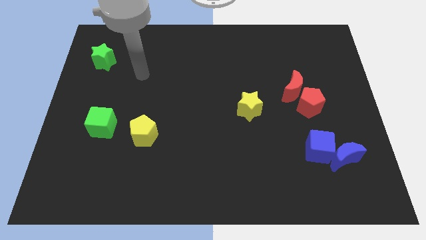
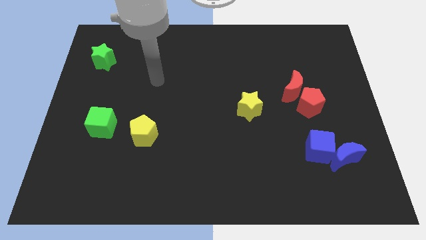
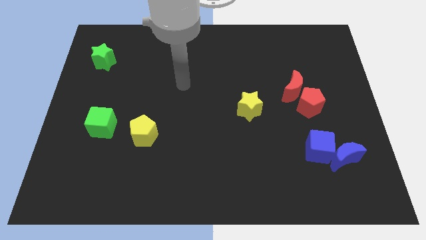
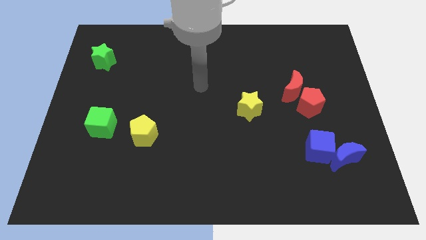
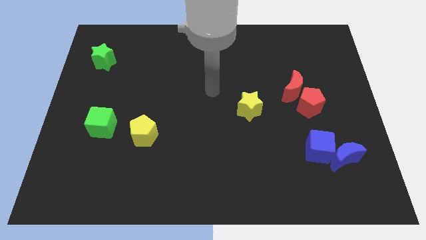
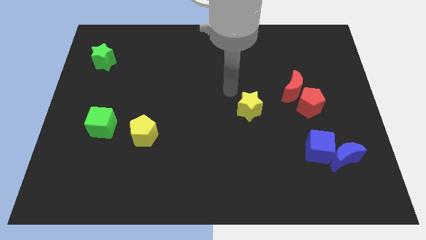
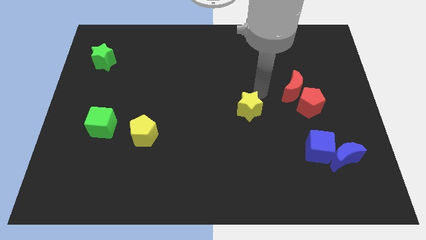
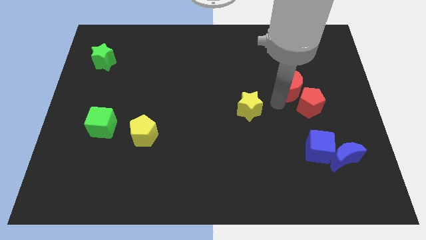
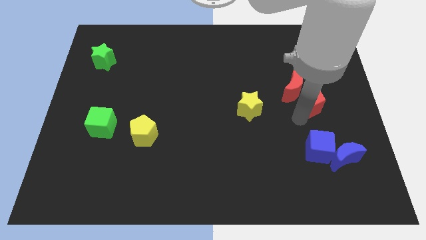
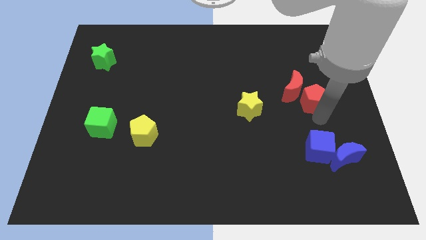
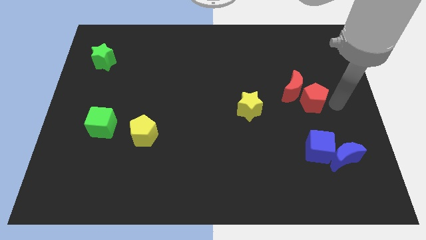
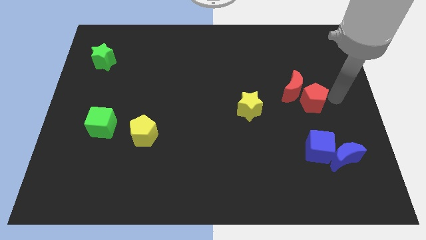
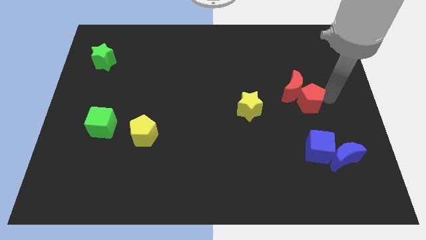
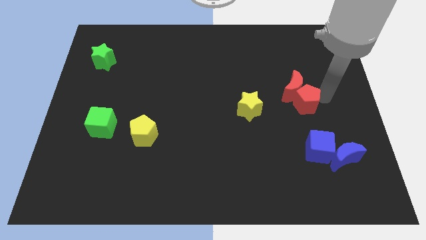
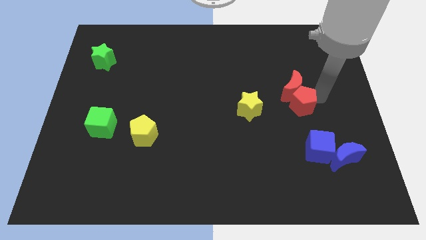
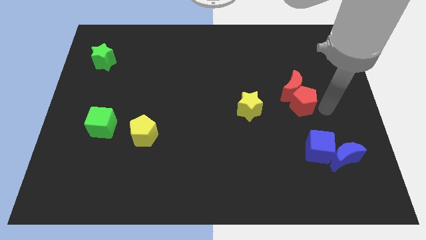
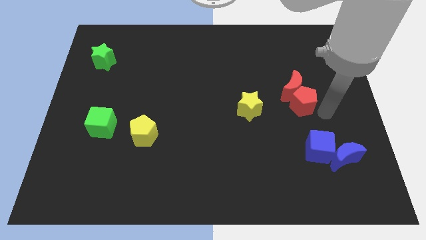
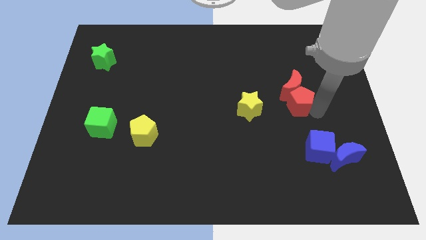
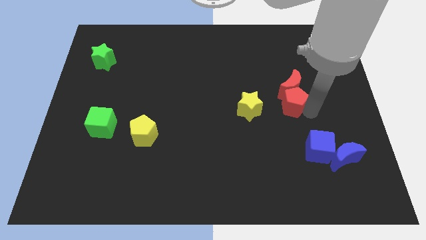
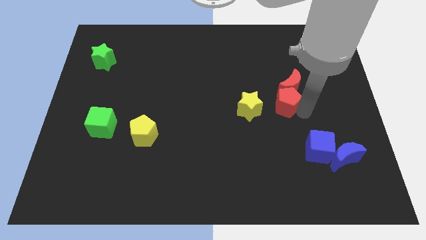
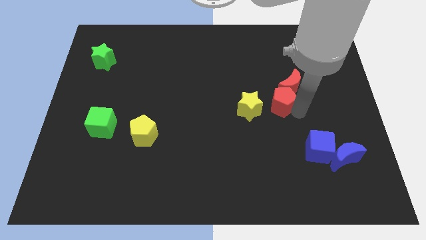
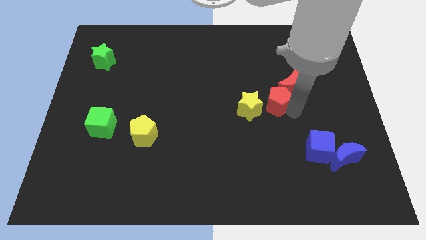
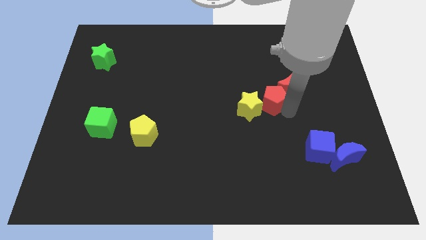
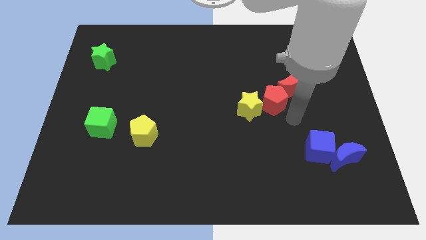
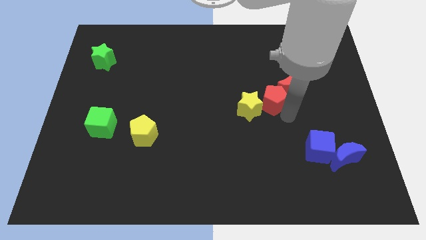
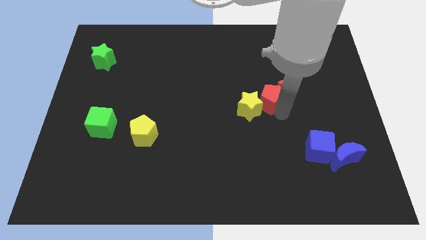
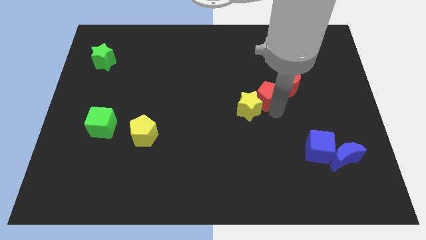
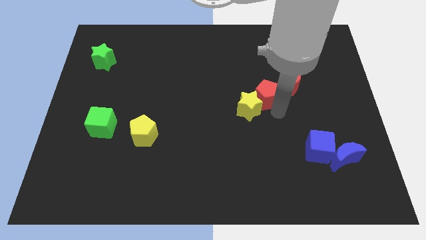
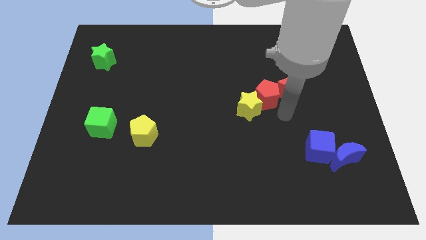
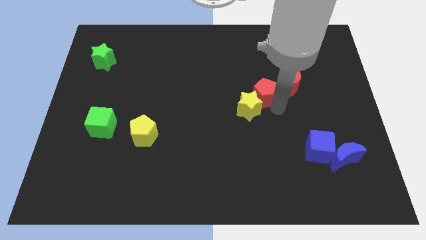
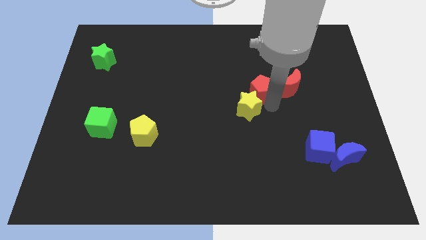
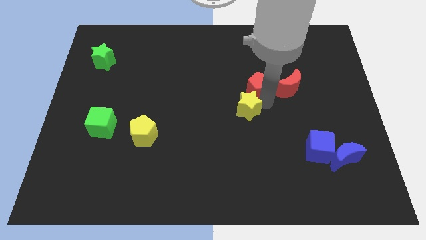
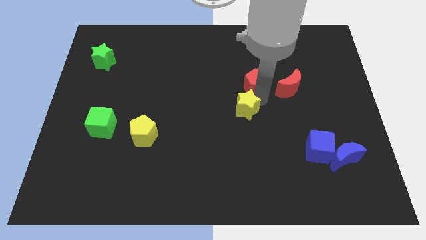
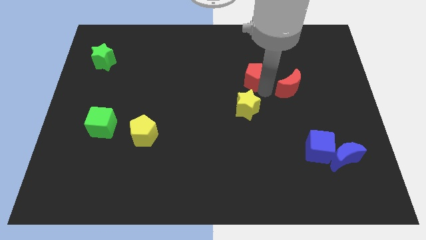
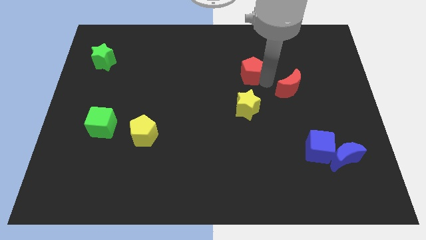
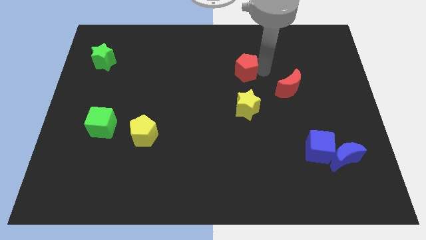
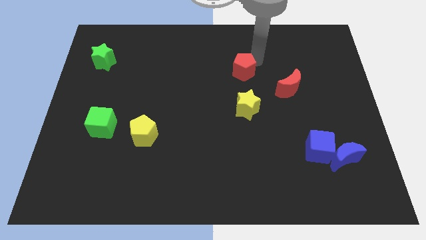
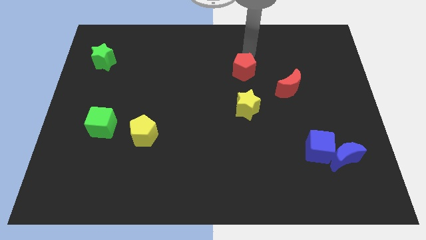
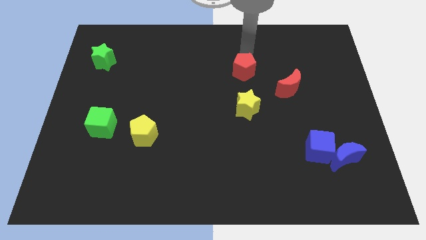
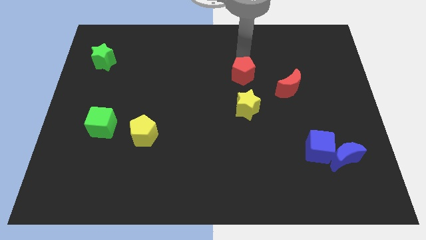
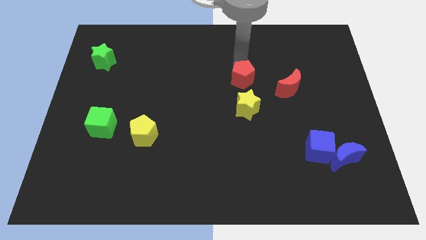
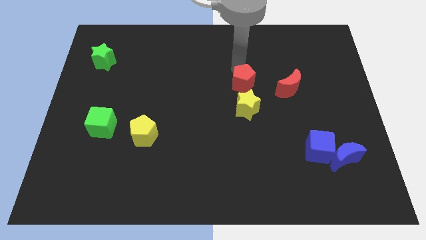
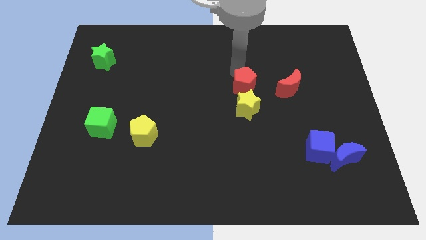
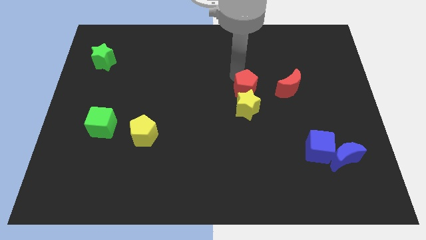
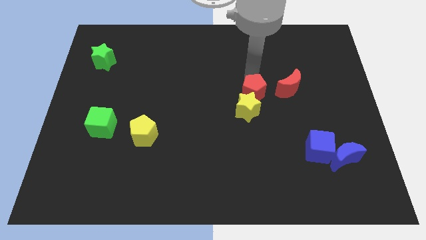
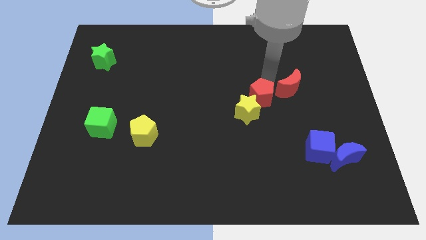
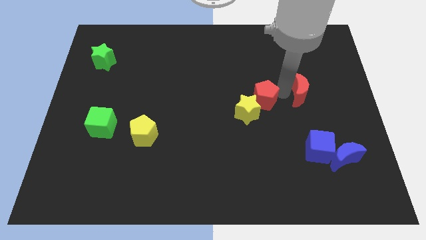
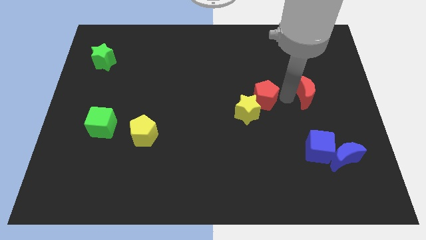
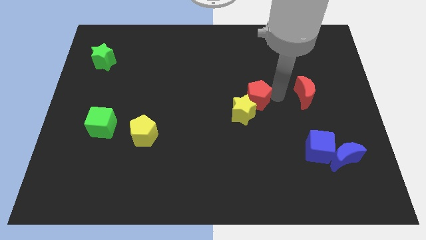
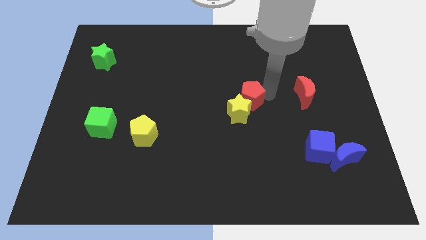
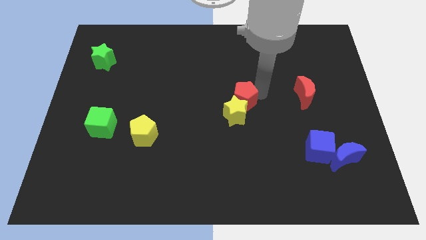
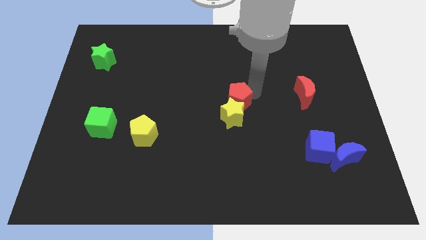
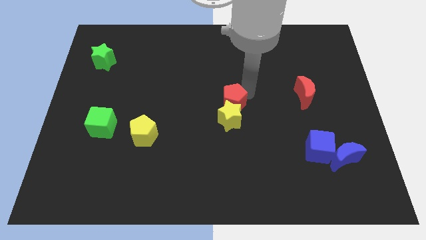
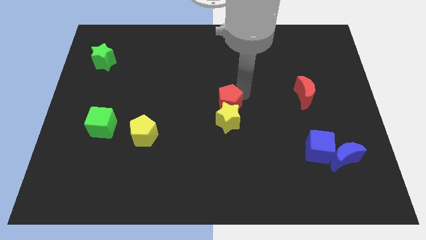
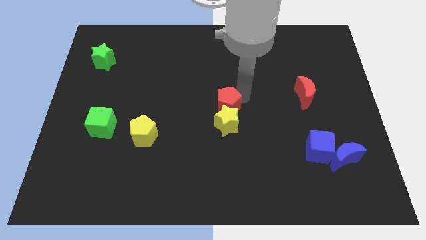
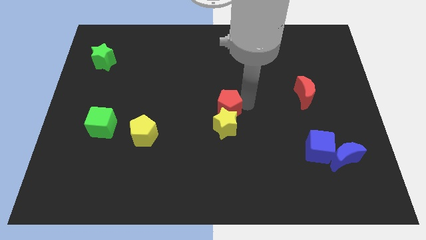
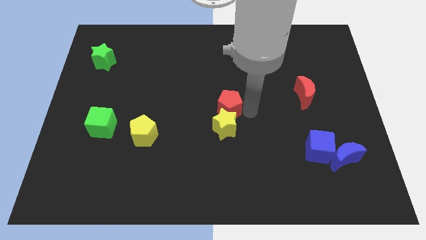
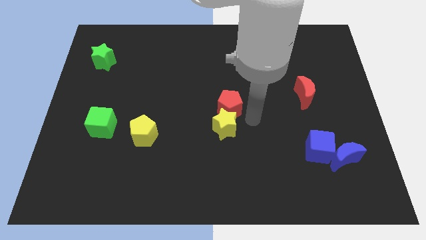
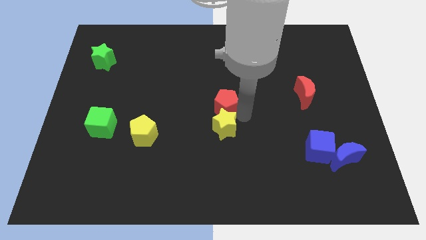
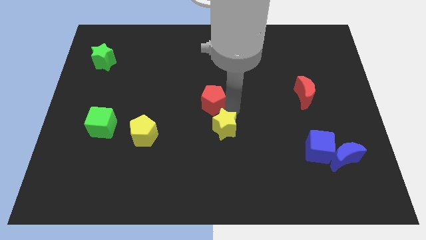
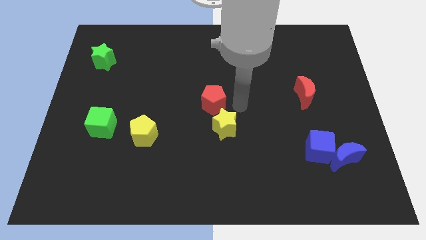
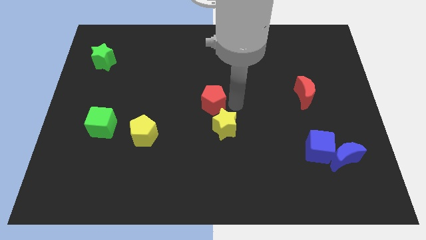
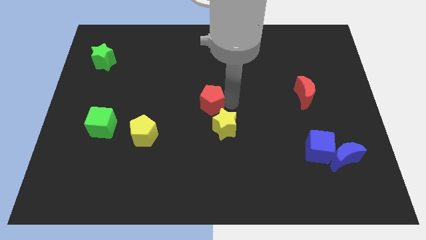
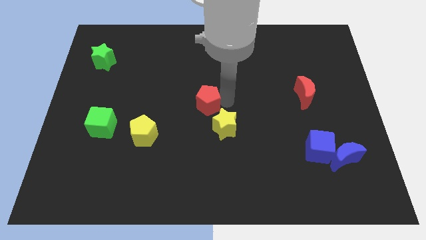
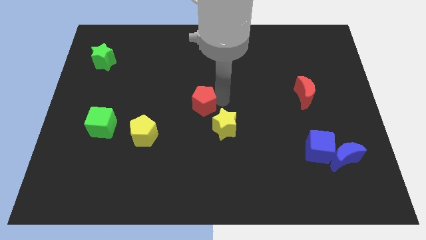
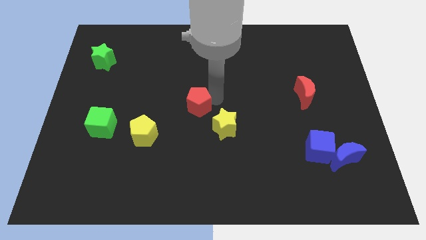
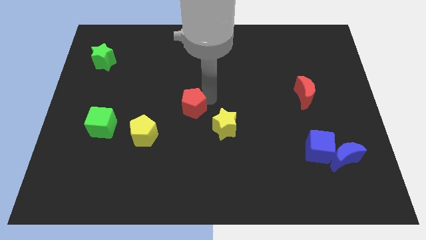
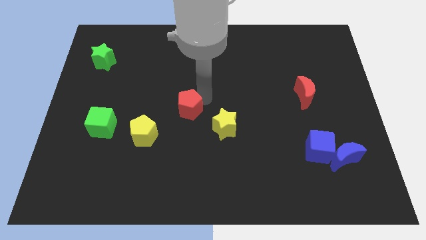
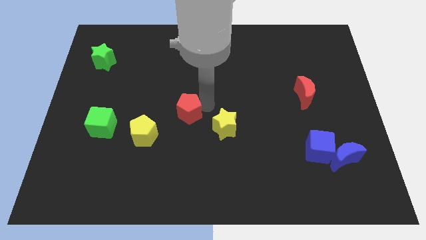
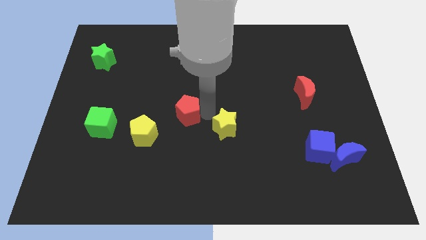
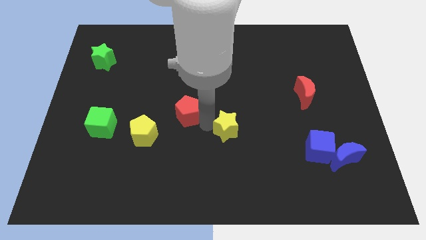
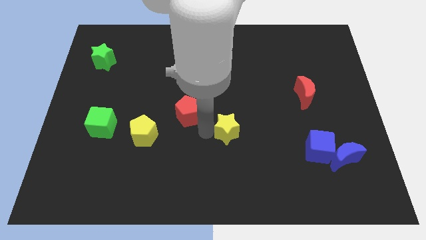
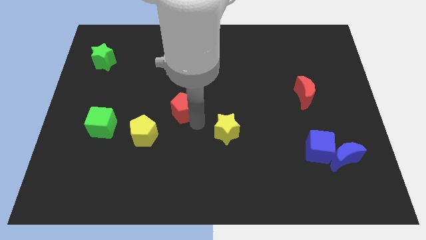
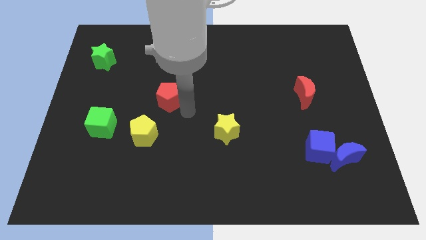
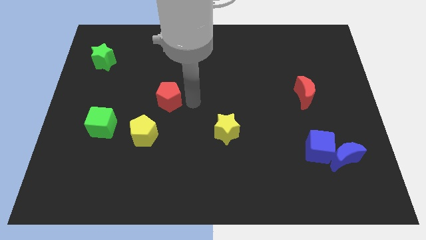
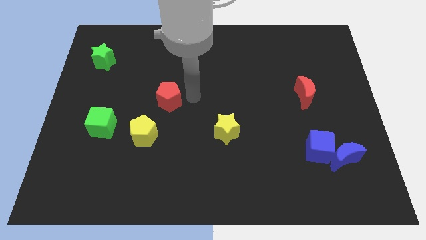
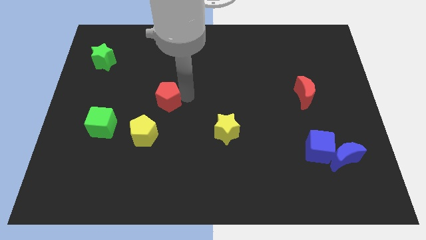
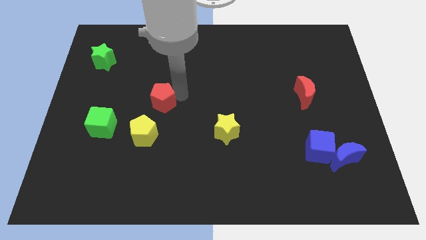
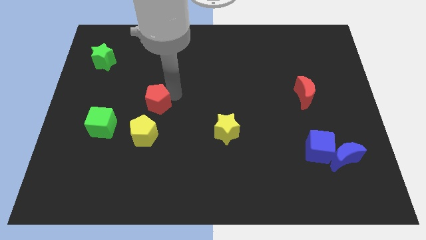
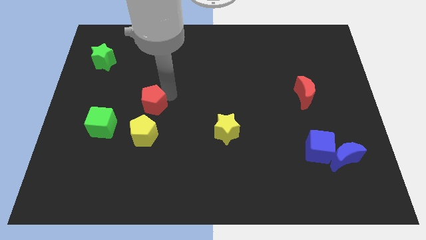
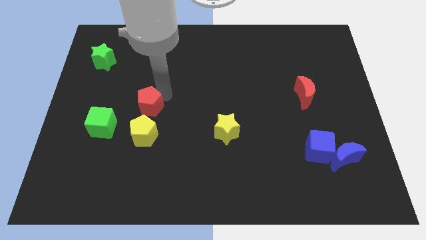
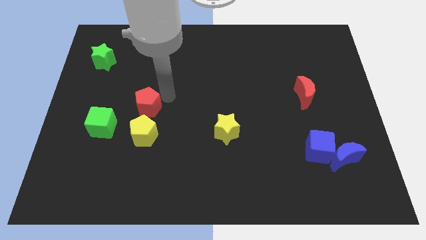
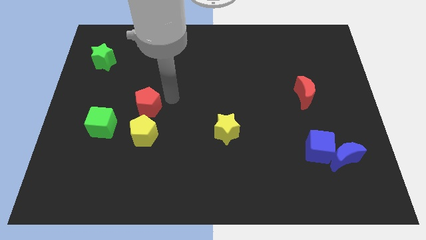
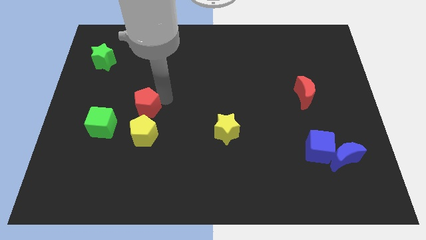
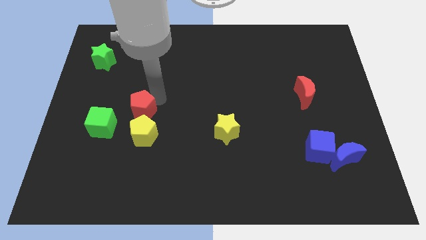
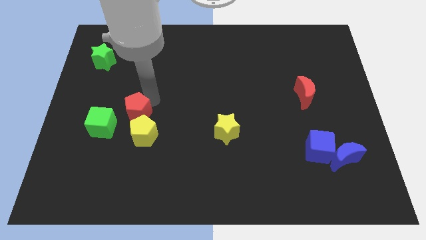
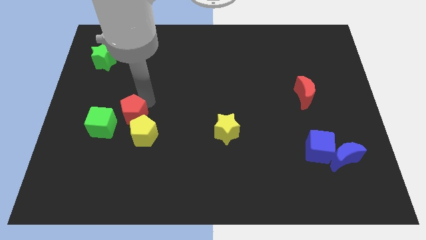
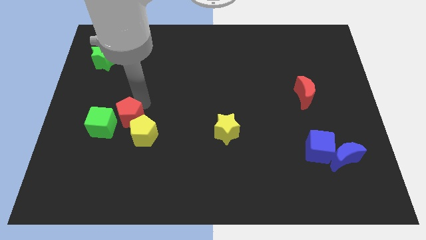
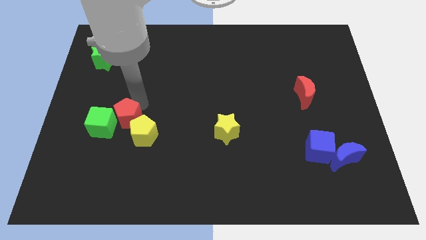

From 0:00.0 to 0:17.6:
push the red pentagon to the green cube
